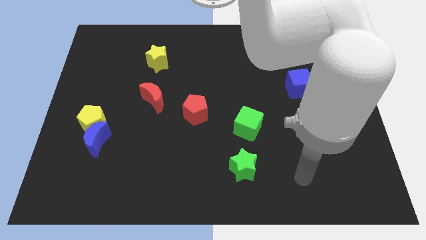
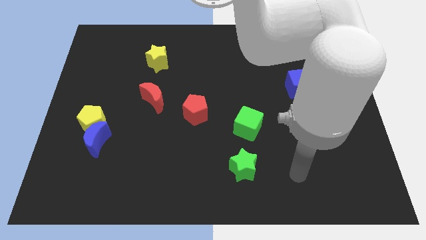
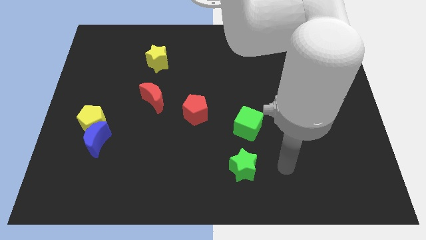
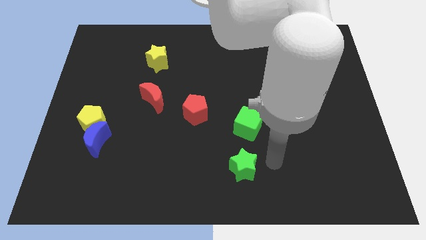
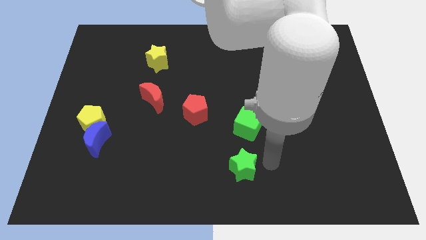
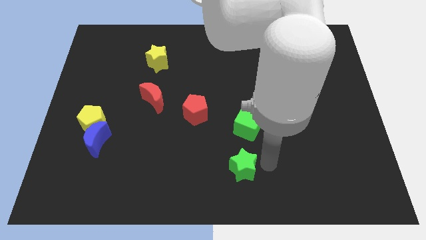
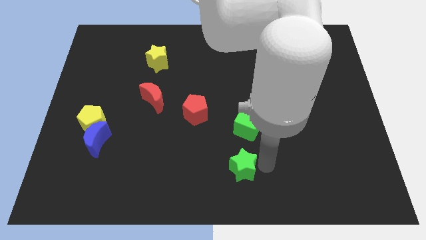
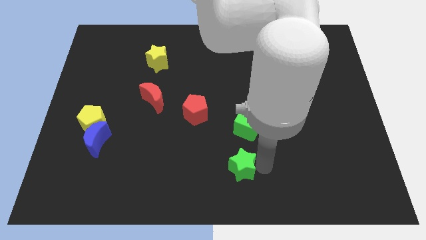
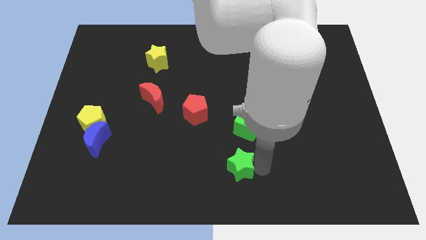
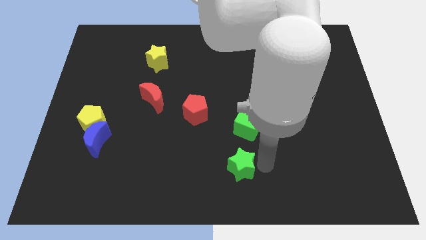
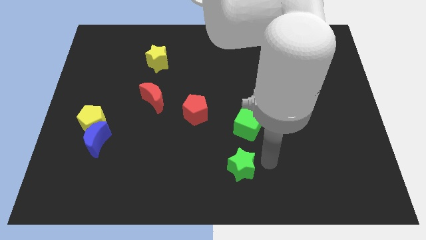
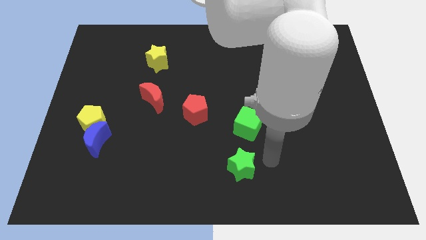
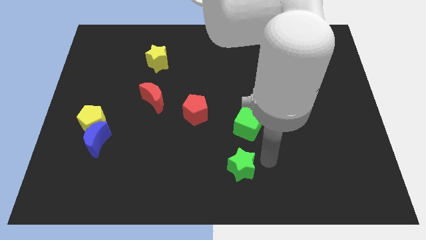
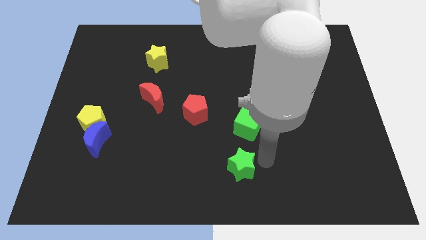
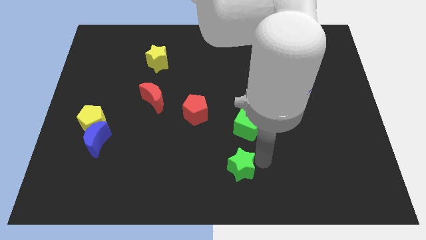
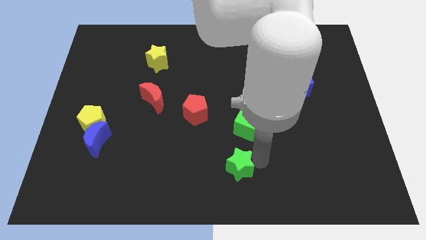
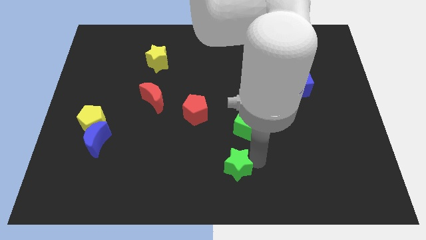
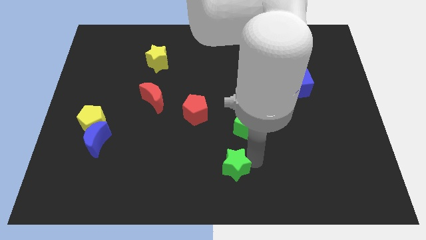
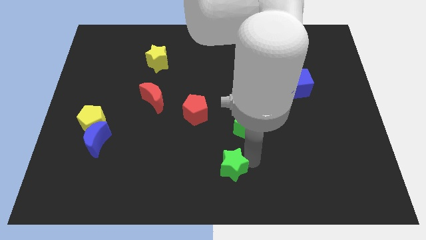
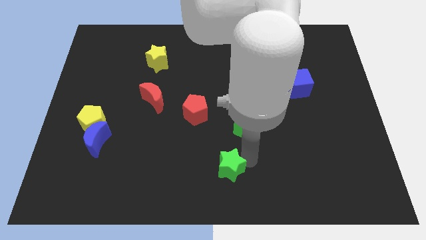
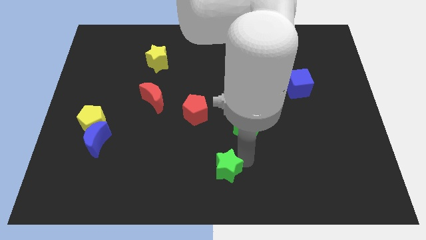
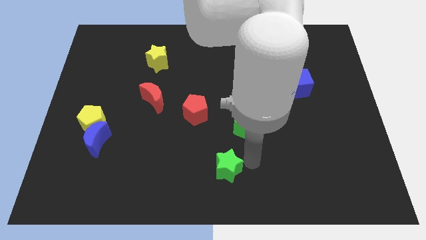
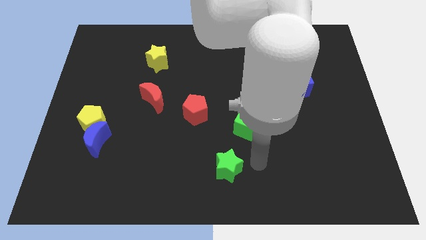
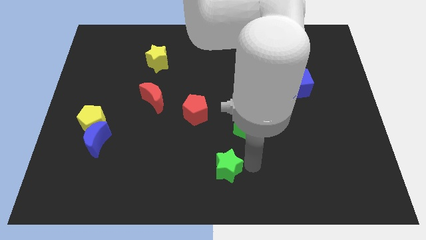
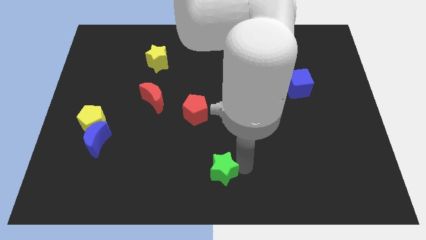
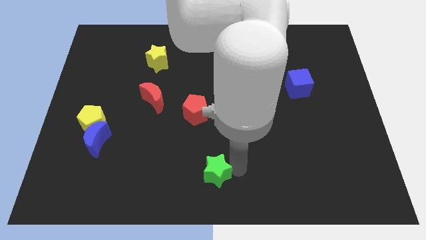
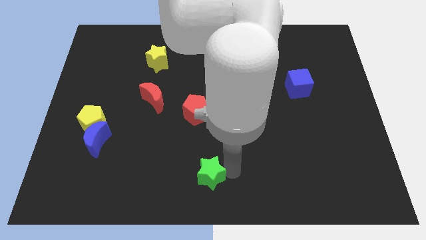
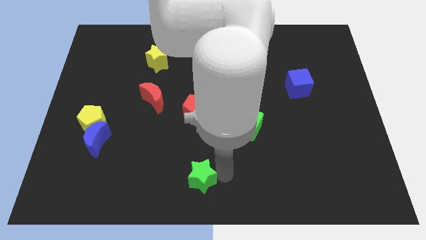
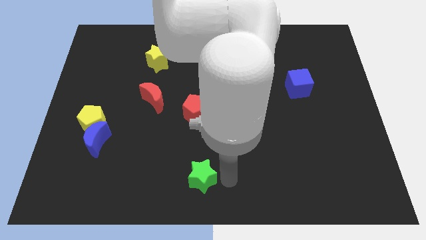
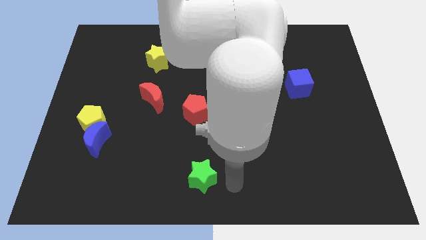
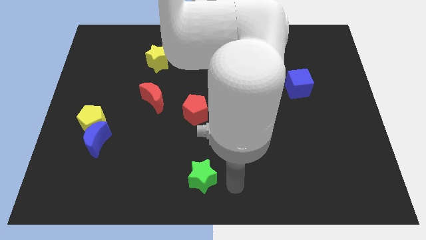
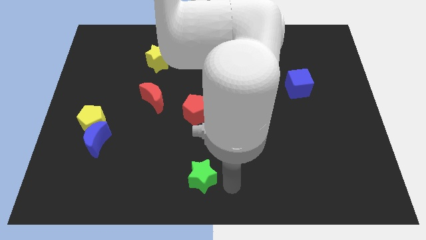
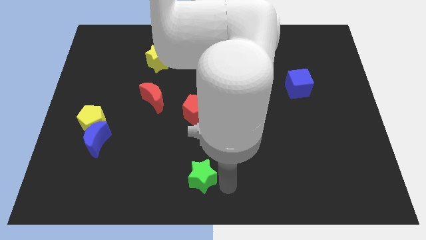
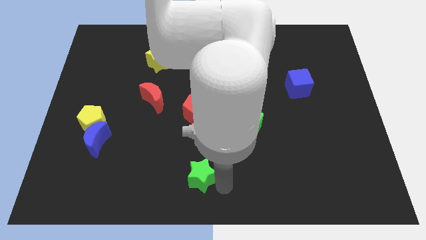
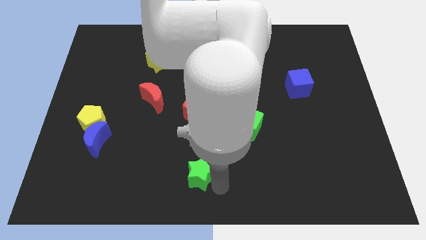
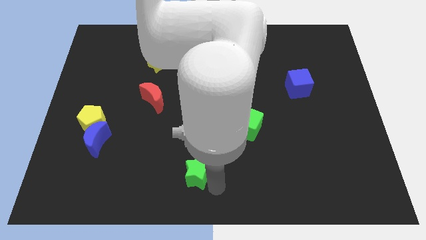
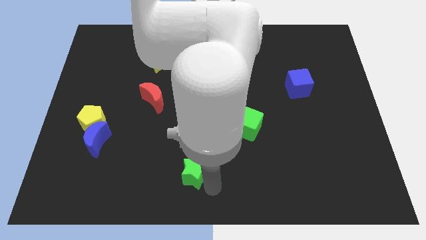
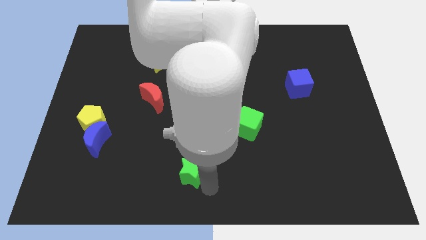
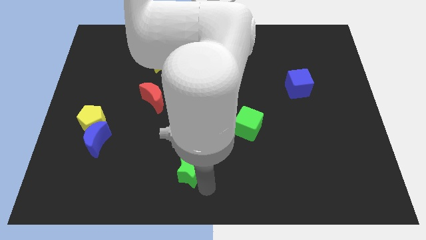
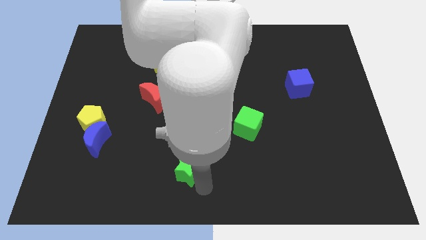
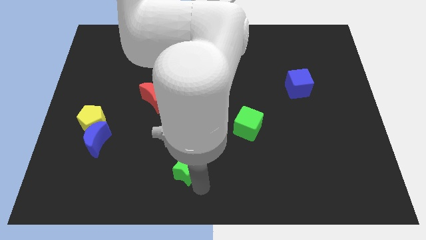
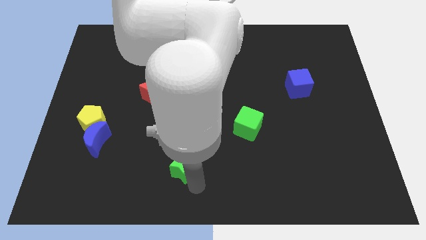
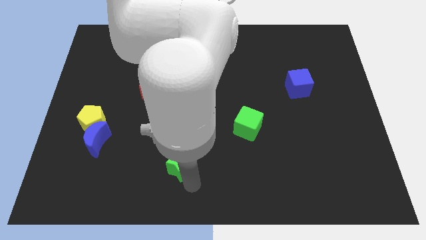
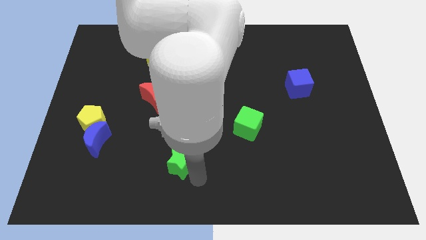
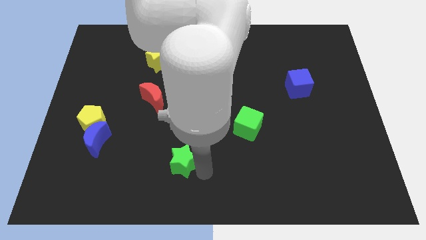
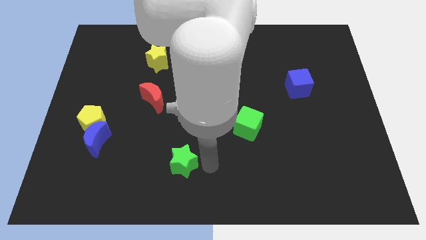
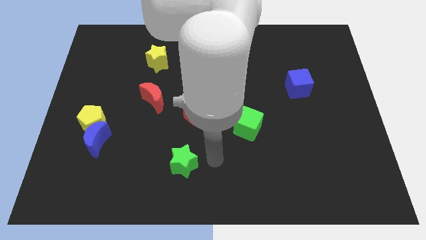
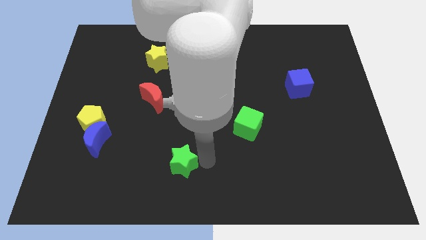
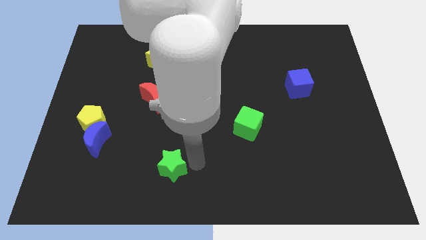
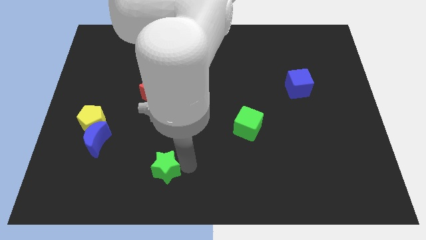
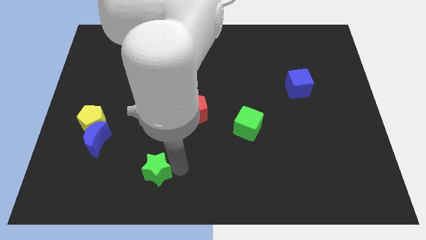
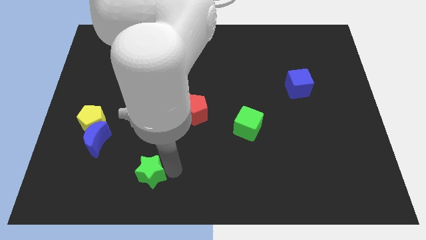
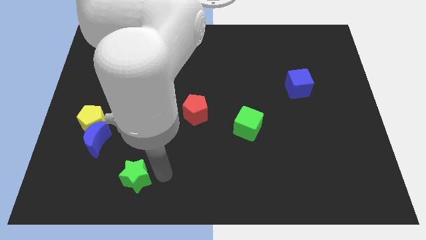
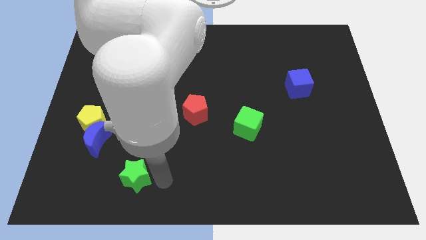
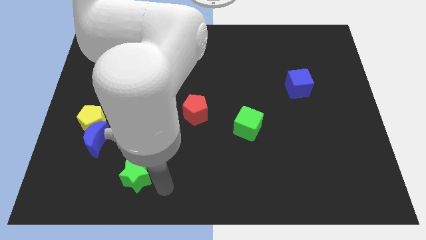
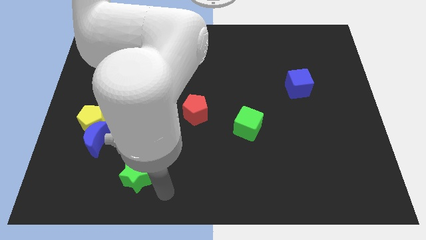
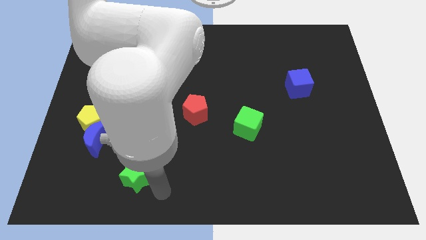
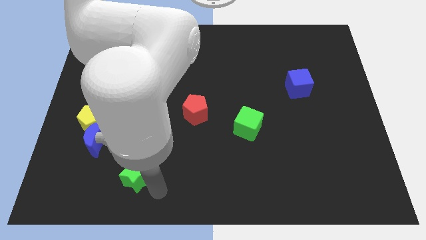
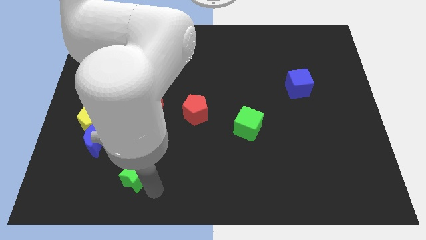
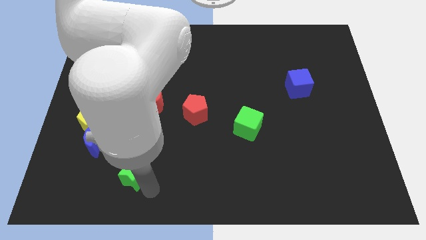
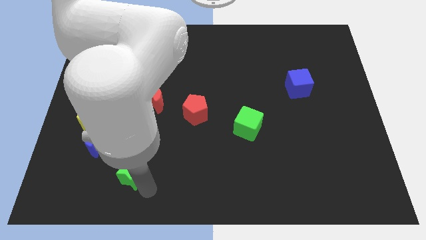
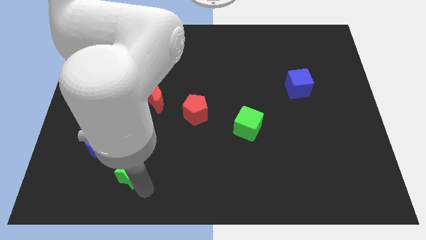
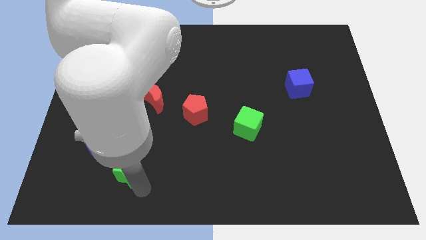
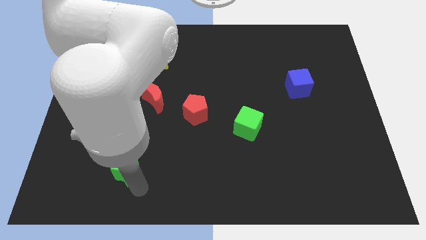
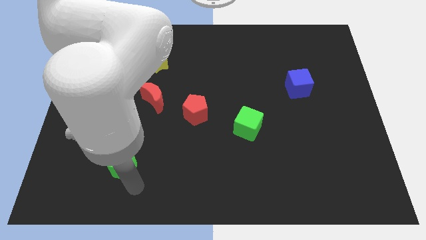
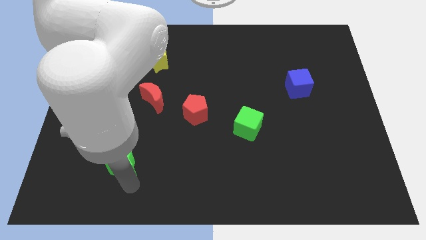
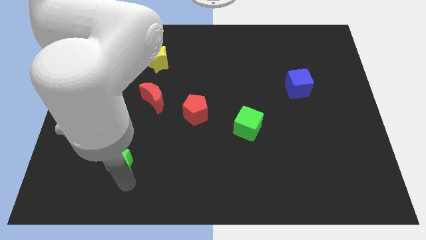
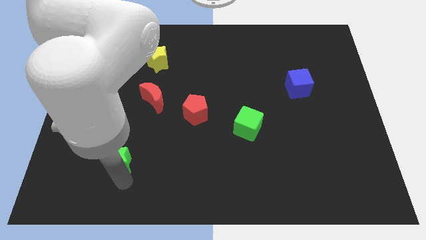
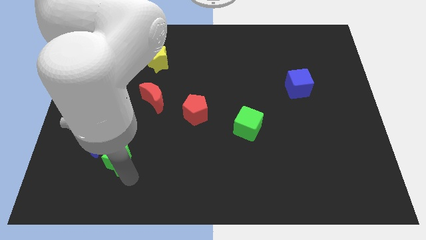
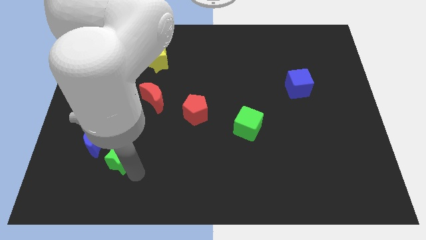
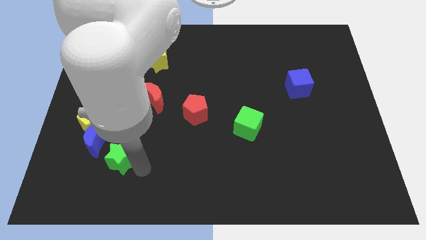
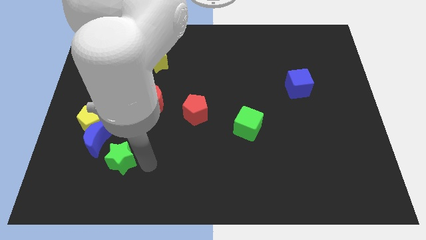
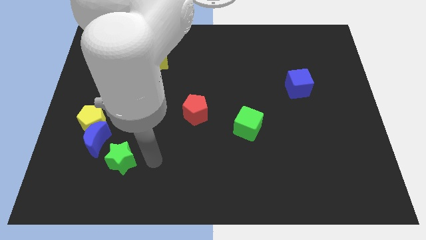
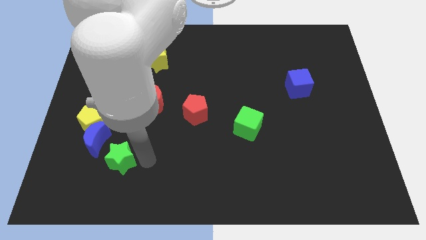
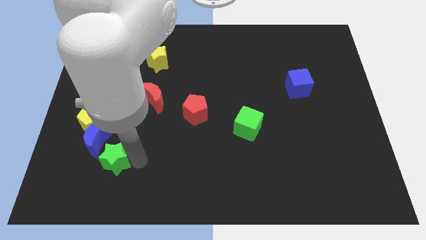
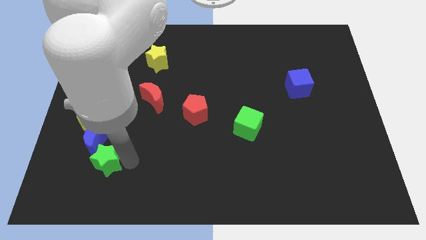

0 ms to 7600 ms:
push the green star to the bottom side of the yellow pentagon

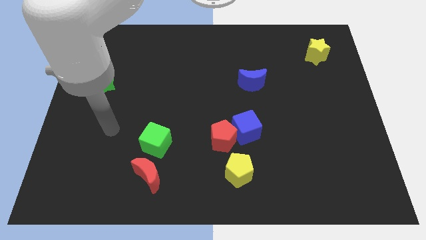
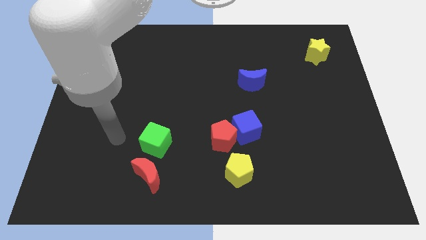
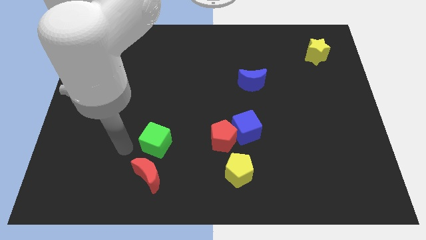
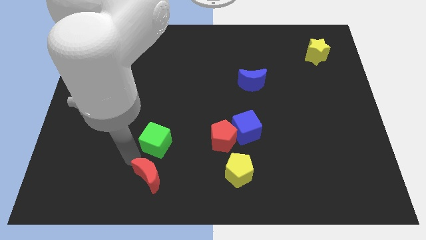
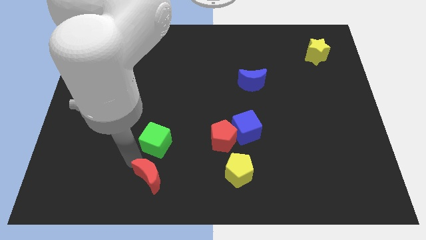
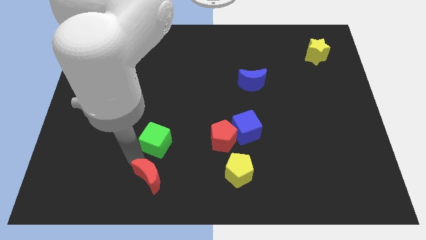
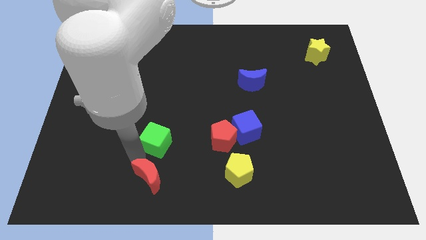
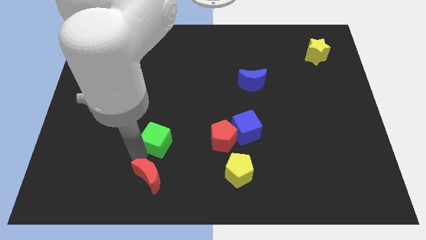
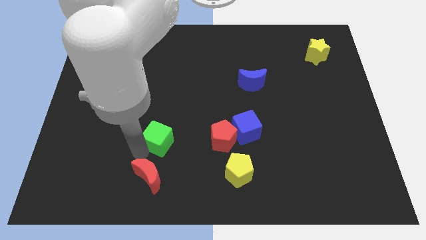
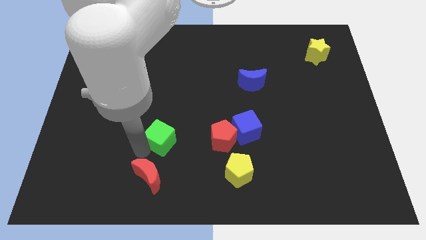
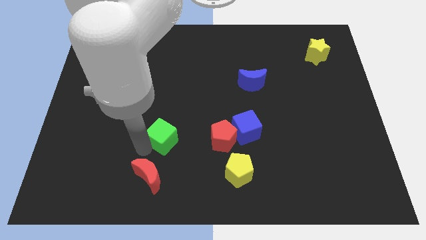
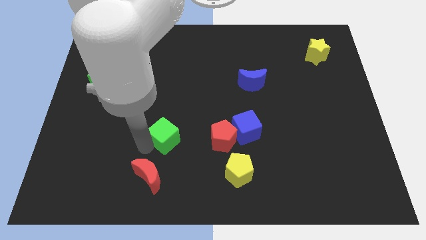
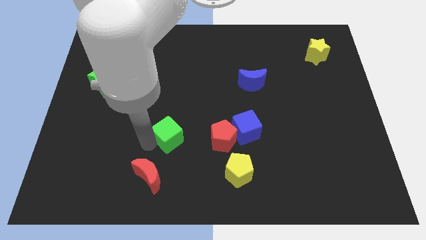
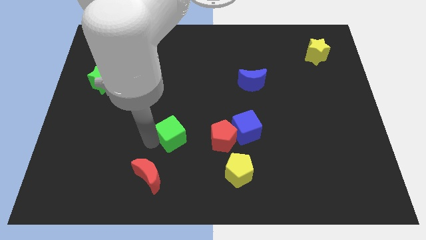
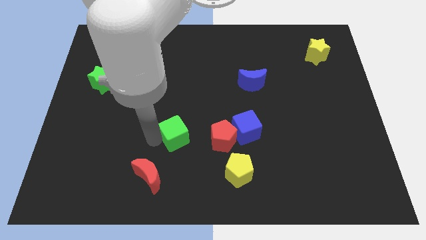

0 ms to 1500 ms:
slide the green cube to the left of the blue cube
